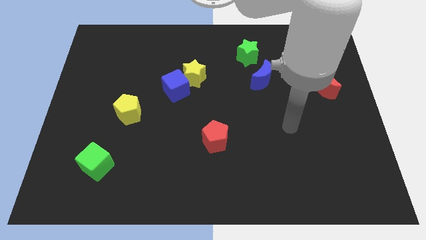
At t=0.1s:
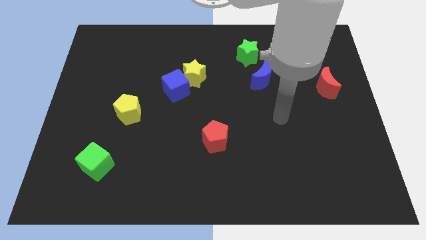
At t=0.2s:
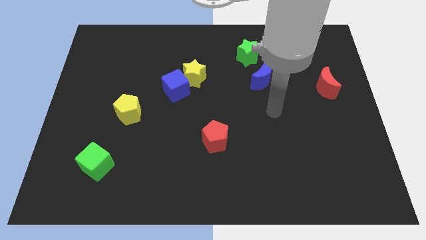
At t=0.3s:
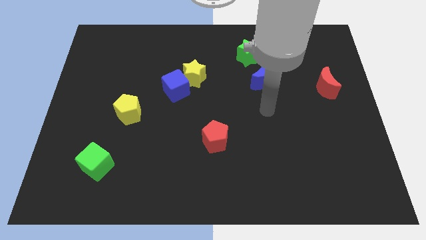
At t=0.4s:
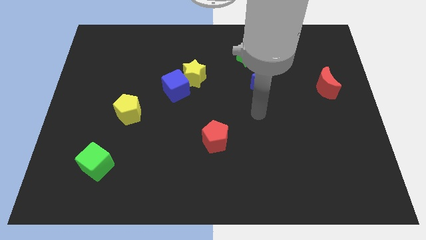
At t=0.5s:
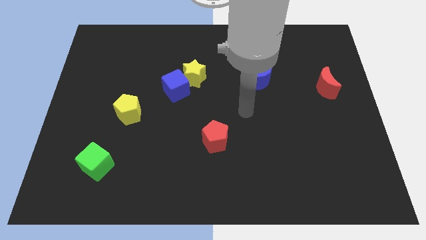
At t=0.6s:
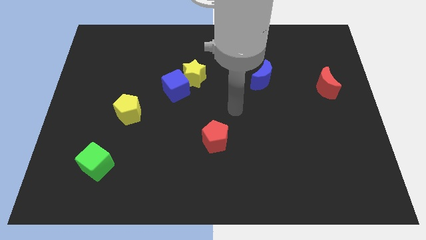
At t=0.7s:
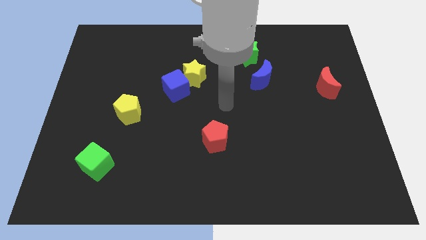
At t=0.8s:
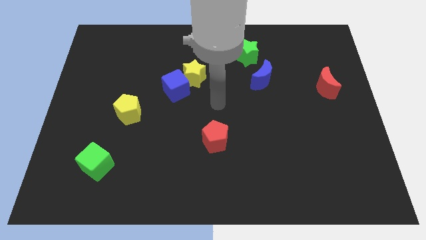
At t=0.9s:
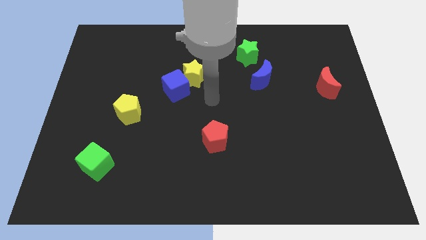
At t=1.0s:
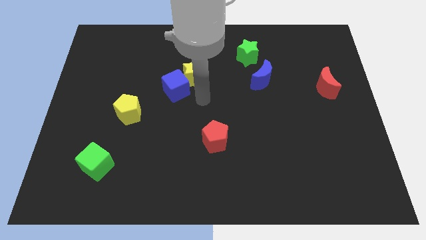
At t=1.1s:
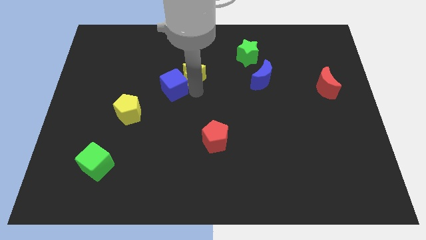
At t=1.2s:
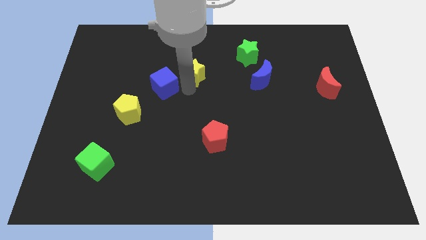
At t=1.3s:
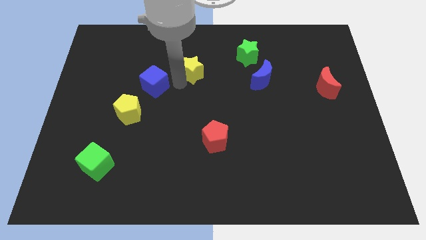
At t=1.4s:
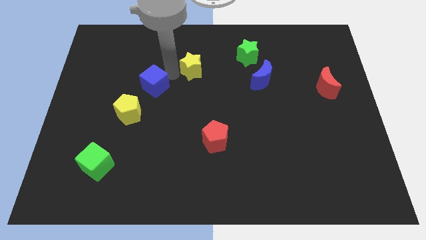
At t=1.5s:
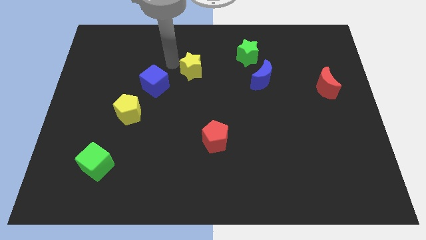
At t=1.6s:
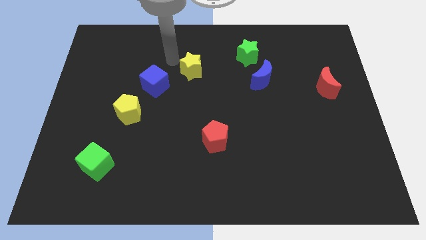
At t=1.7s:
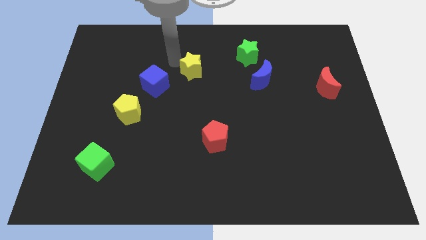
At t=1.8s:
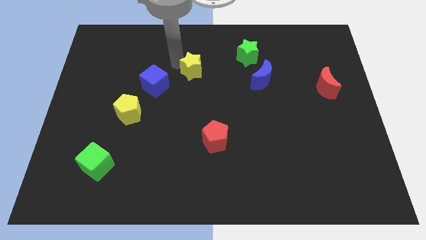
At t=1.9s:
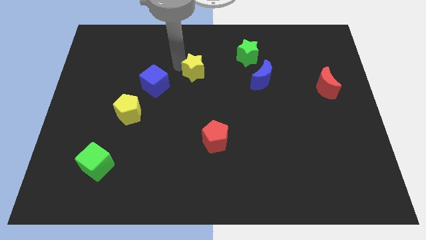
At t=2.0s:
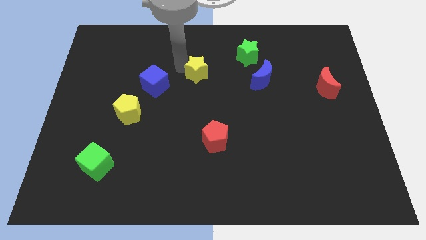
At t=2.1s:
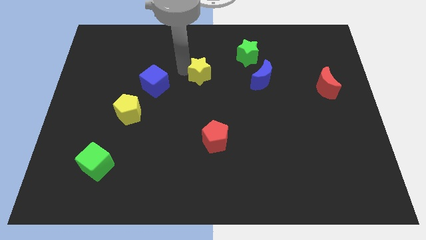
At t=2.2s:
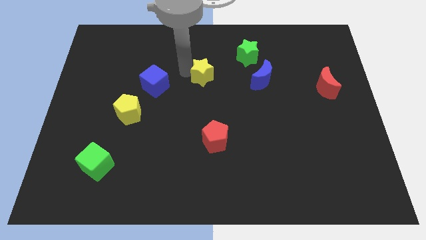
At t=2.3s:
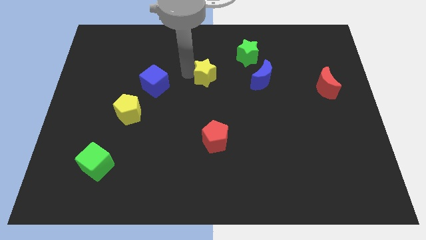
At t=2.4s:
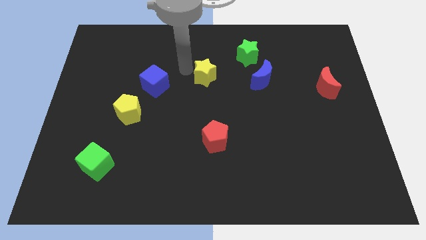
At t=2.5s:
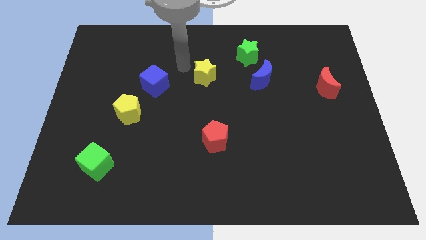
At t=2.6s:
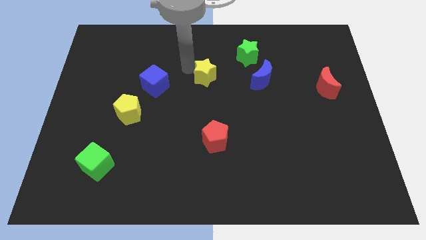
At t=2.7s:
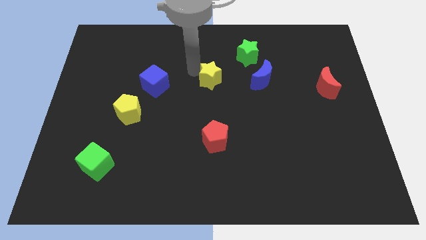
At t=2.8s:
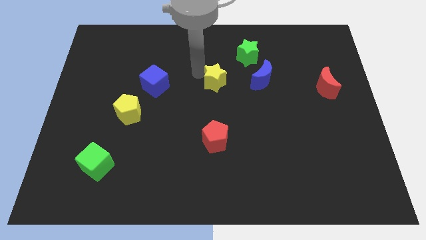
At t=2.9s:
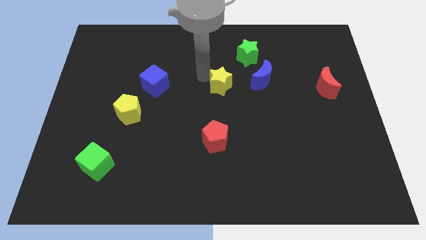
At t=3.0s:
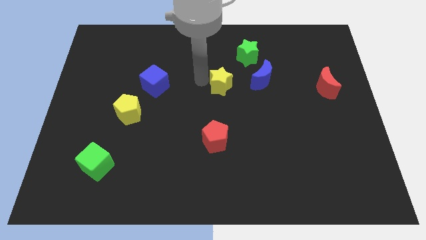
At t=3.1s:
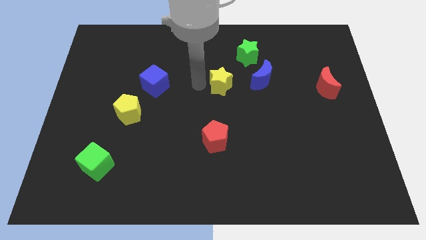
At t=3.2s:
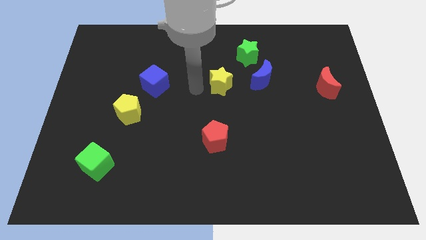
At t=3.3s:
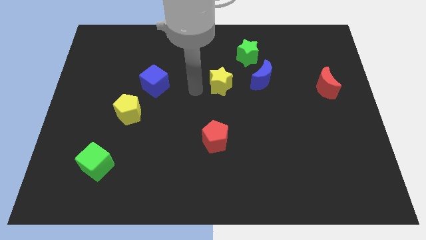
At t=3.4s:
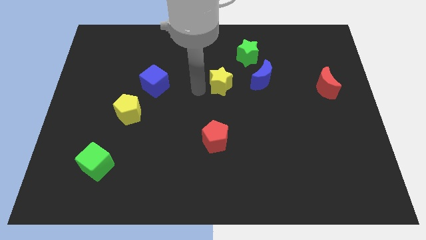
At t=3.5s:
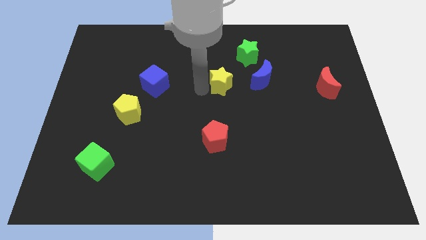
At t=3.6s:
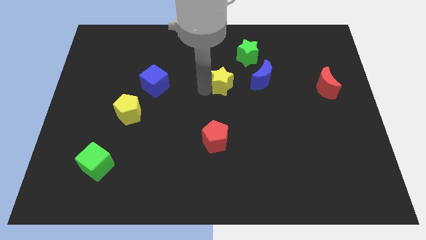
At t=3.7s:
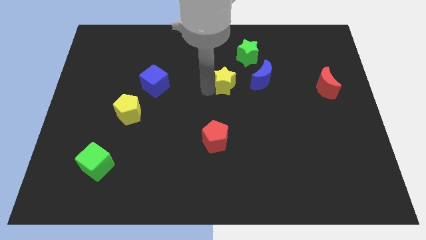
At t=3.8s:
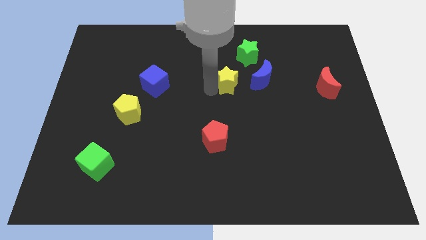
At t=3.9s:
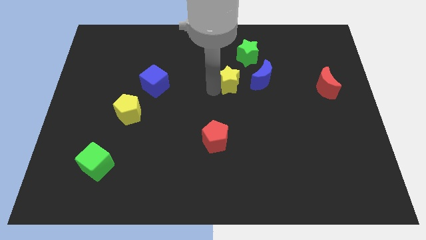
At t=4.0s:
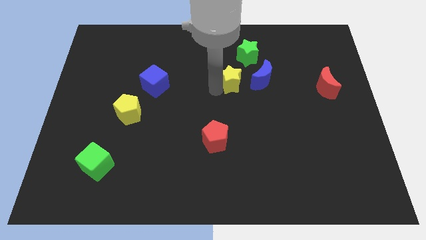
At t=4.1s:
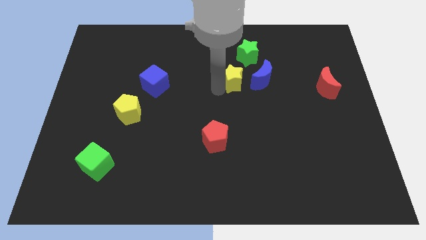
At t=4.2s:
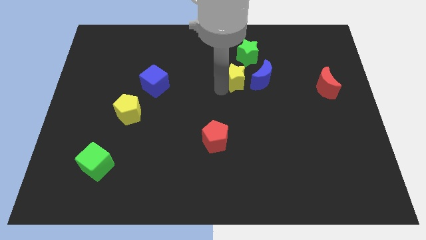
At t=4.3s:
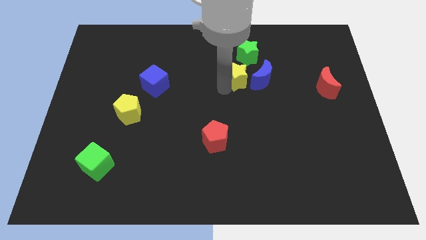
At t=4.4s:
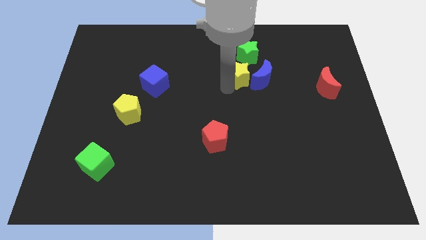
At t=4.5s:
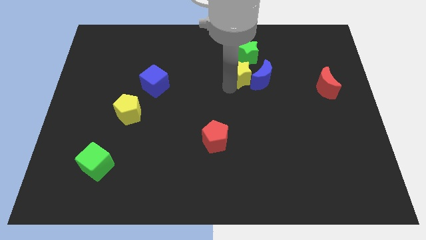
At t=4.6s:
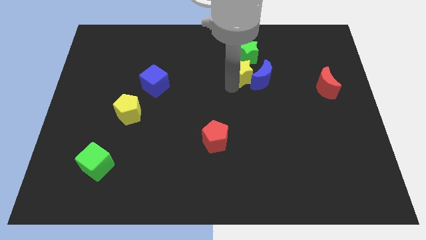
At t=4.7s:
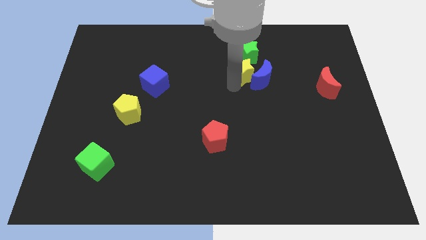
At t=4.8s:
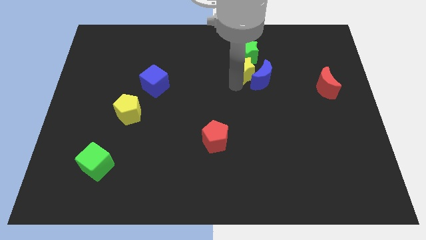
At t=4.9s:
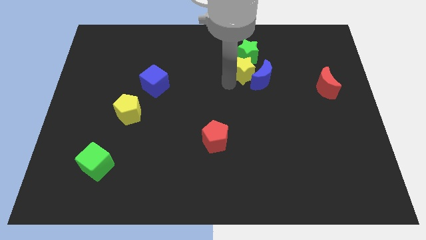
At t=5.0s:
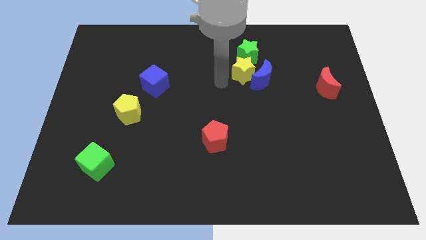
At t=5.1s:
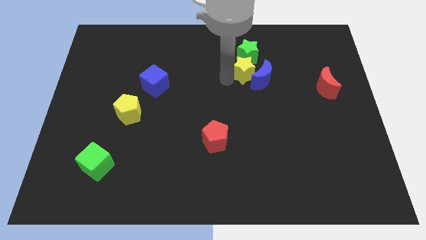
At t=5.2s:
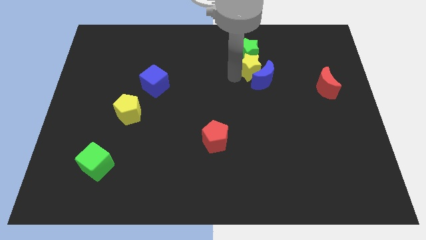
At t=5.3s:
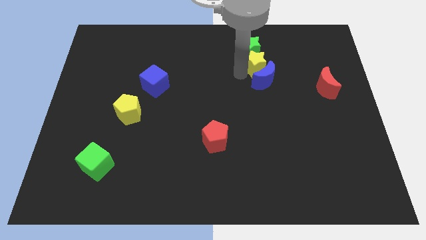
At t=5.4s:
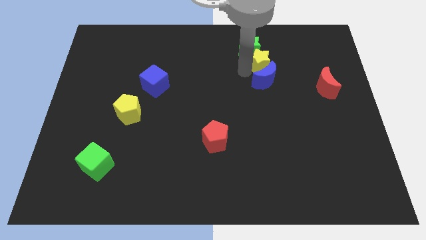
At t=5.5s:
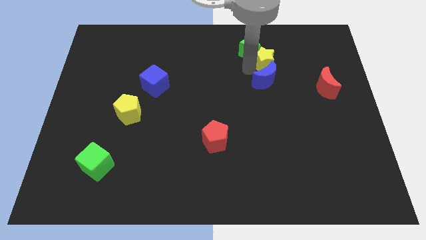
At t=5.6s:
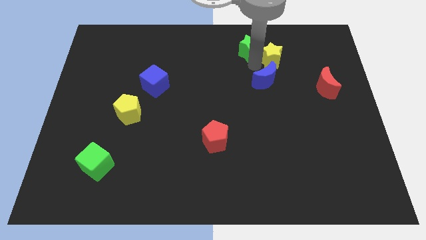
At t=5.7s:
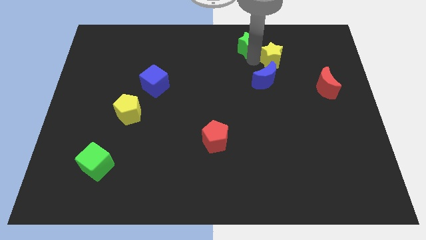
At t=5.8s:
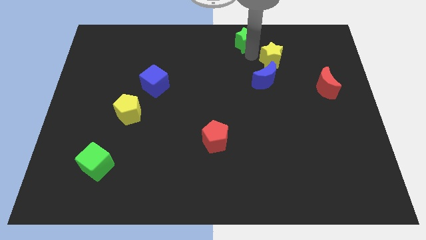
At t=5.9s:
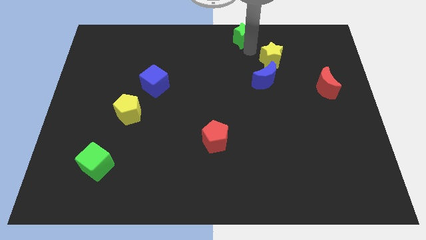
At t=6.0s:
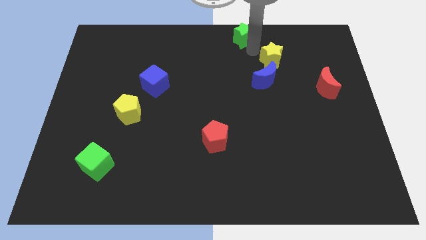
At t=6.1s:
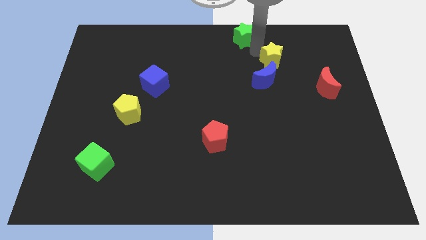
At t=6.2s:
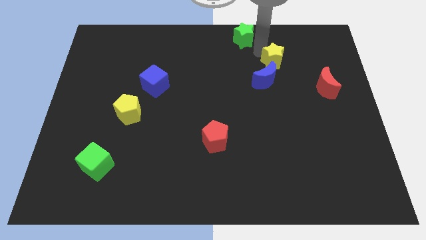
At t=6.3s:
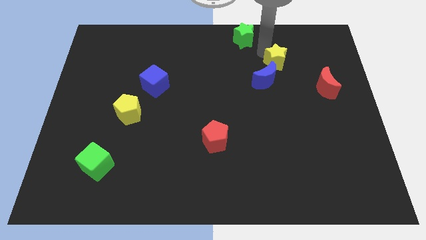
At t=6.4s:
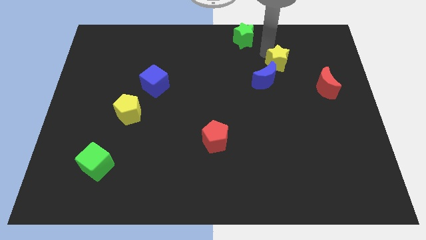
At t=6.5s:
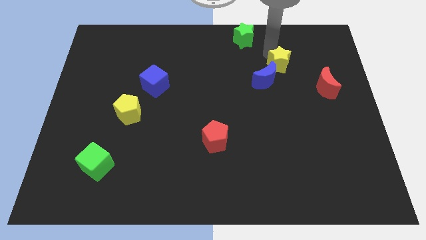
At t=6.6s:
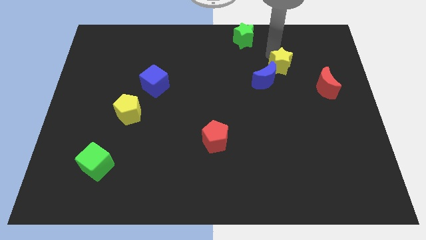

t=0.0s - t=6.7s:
push the yellow star to the top left side of the red moon
